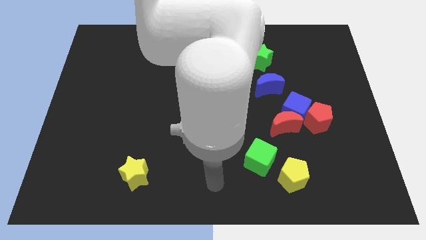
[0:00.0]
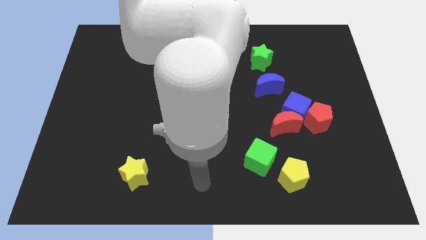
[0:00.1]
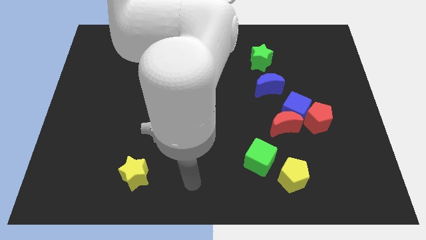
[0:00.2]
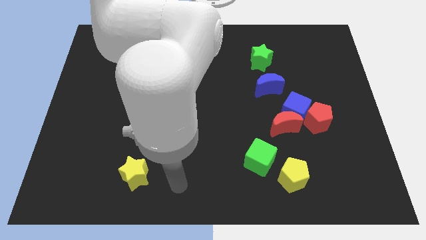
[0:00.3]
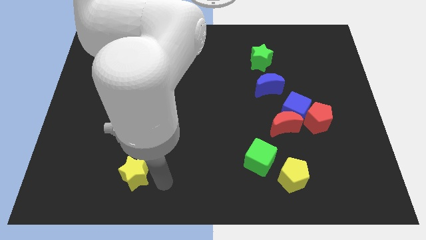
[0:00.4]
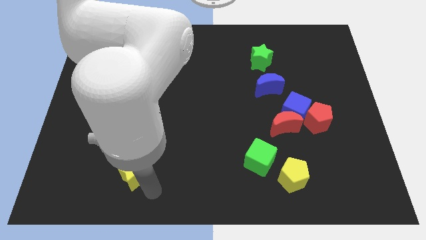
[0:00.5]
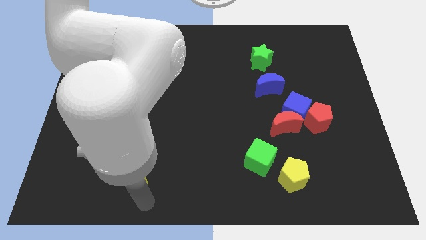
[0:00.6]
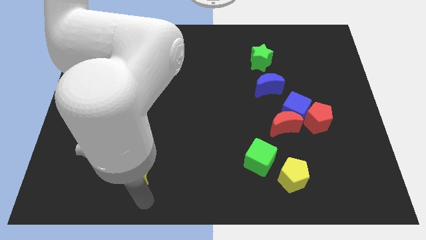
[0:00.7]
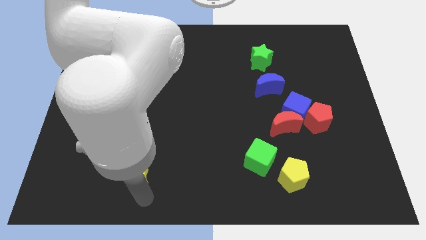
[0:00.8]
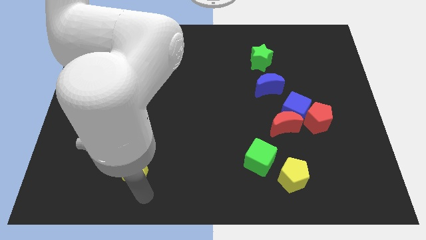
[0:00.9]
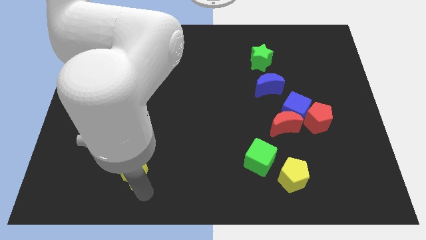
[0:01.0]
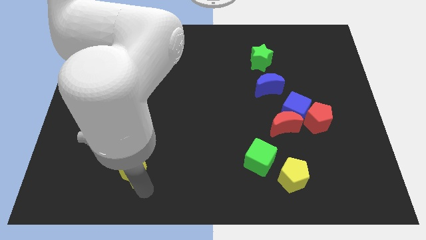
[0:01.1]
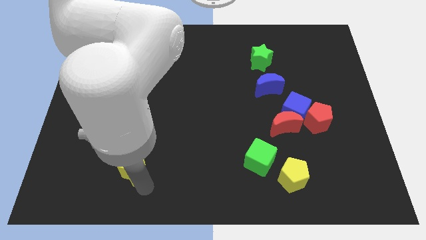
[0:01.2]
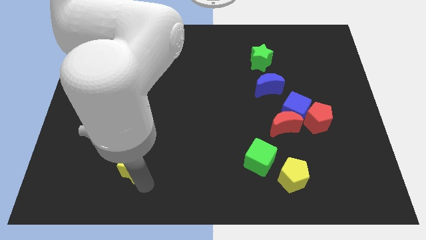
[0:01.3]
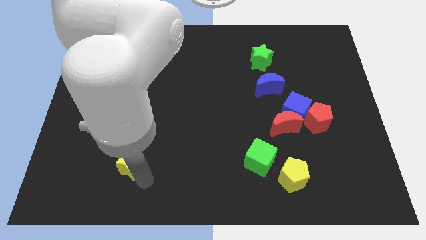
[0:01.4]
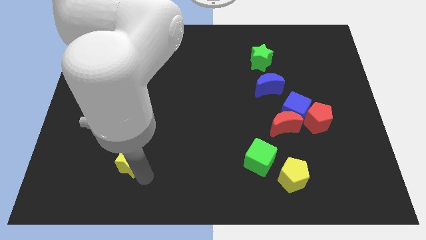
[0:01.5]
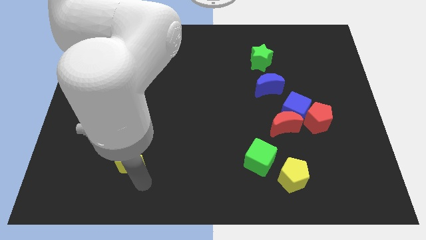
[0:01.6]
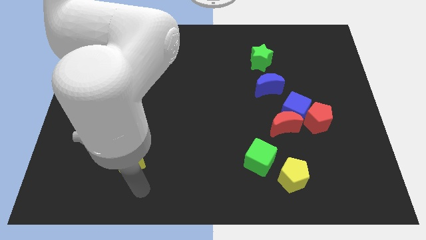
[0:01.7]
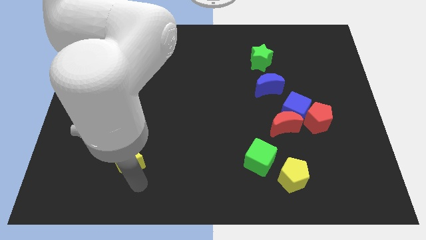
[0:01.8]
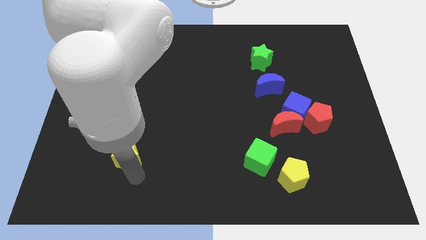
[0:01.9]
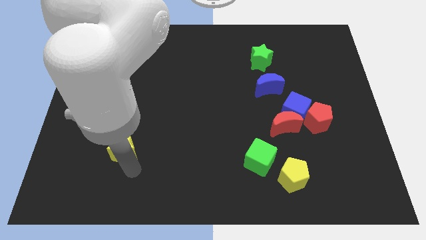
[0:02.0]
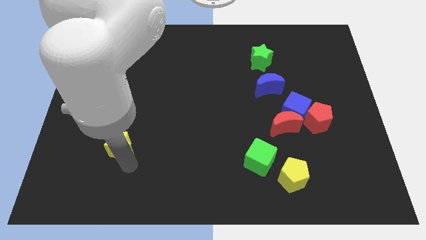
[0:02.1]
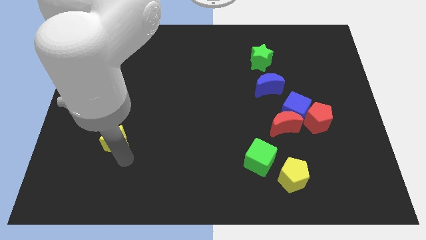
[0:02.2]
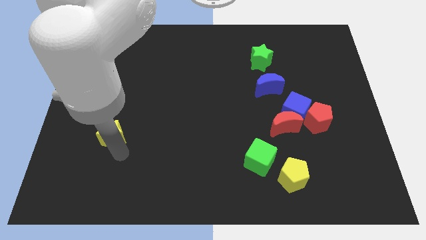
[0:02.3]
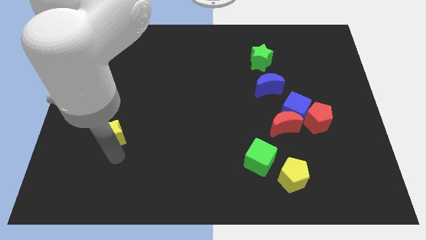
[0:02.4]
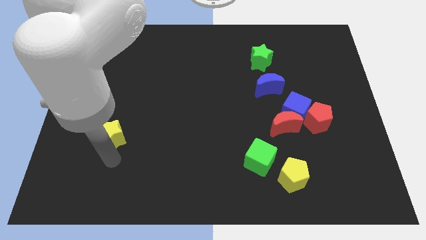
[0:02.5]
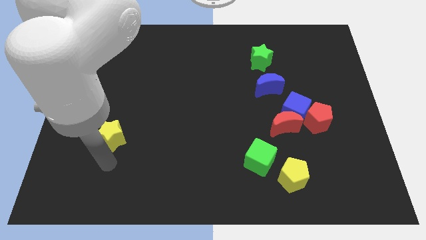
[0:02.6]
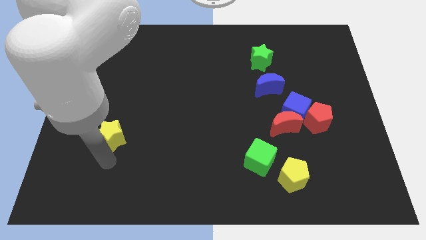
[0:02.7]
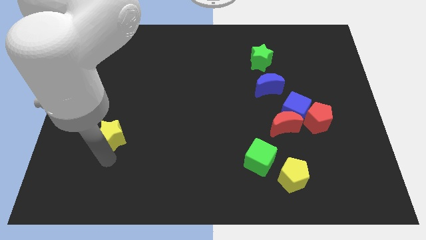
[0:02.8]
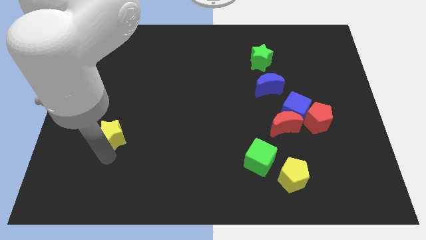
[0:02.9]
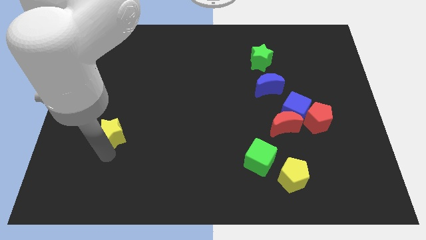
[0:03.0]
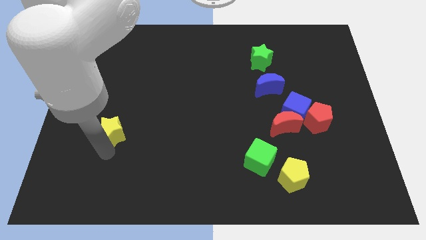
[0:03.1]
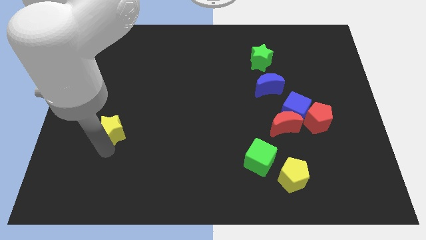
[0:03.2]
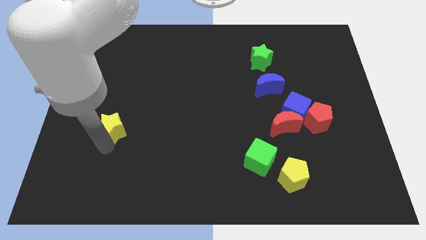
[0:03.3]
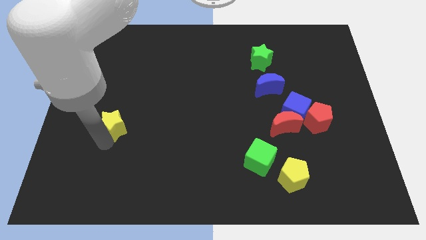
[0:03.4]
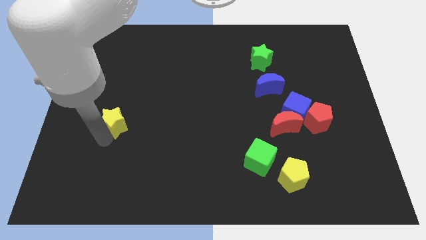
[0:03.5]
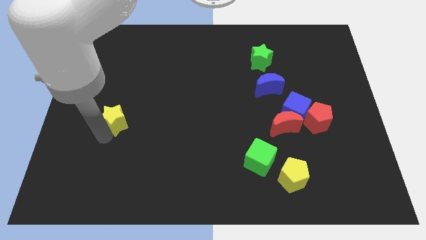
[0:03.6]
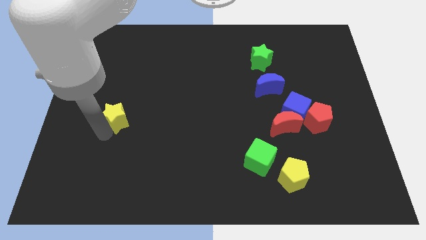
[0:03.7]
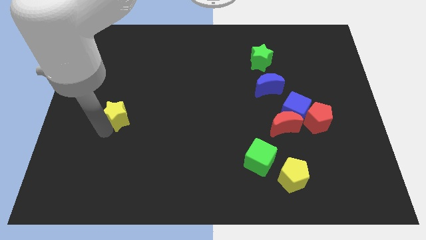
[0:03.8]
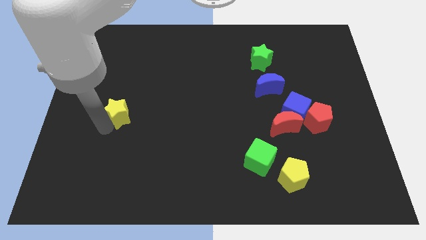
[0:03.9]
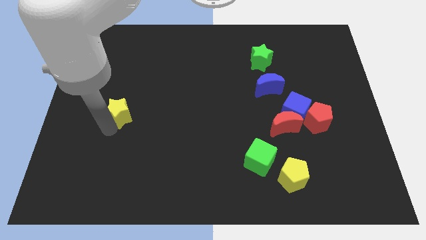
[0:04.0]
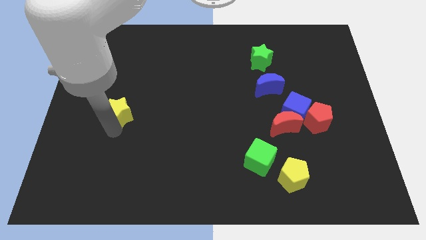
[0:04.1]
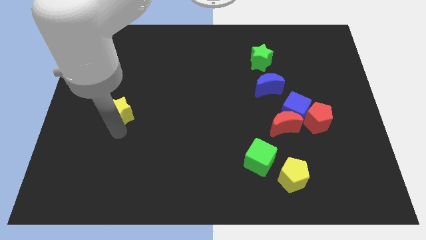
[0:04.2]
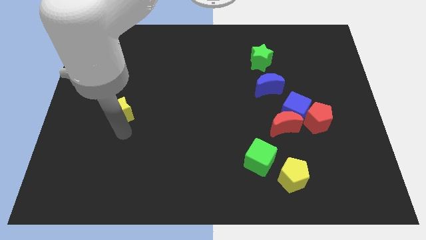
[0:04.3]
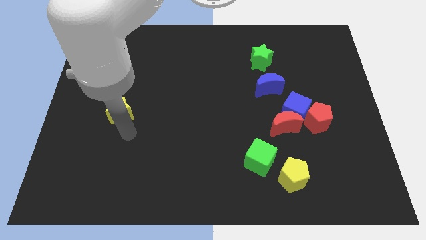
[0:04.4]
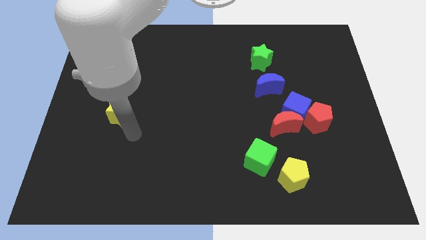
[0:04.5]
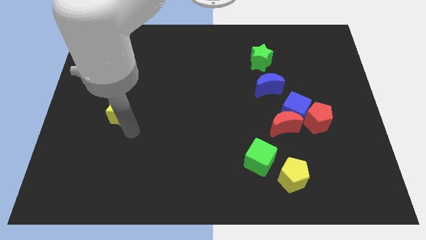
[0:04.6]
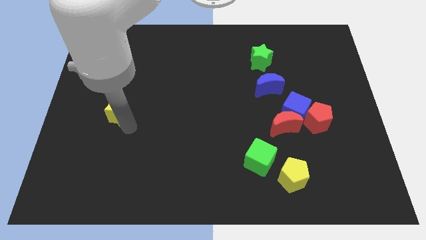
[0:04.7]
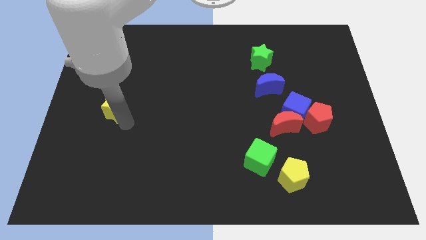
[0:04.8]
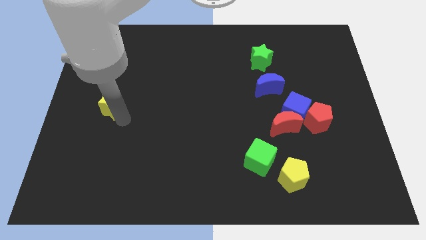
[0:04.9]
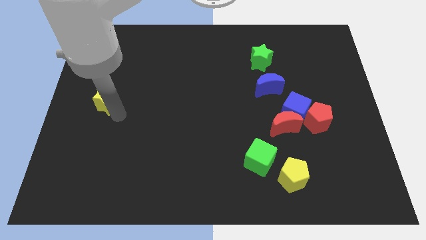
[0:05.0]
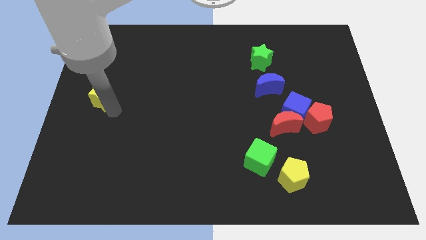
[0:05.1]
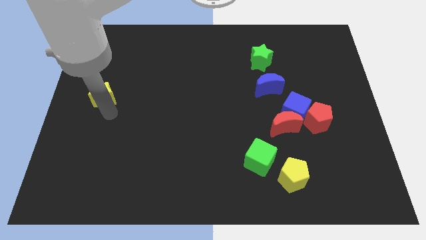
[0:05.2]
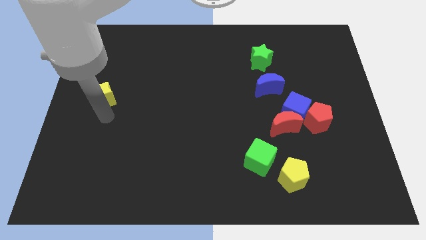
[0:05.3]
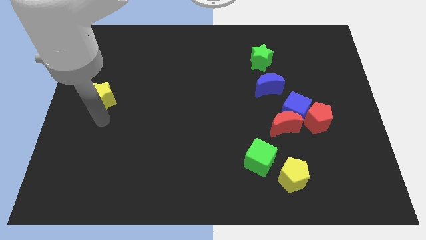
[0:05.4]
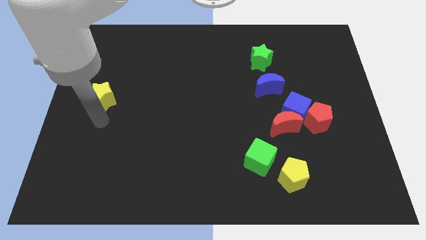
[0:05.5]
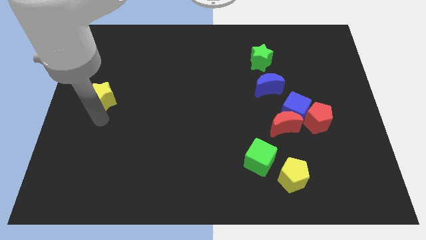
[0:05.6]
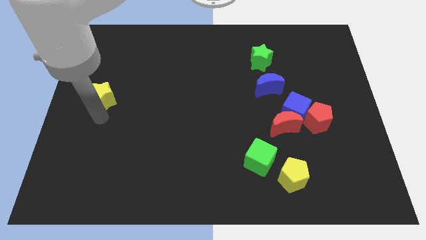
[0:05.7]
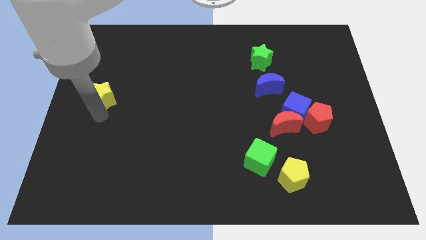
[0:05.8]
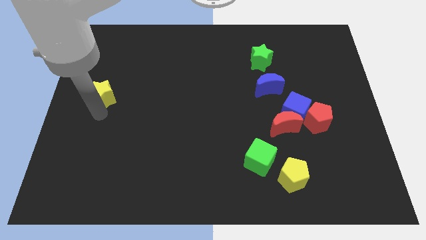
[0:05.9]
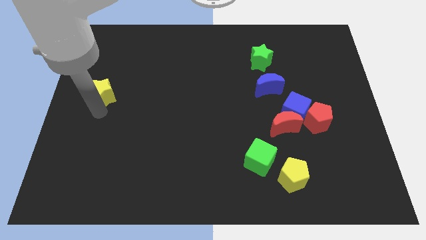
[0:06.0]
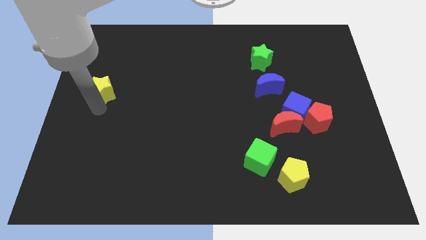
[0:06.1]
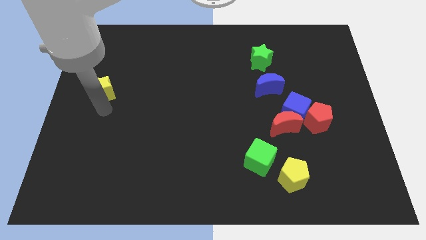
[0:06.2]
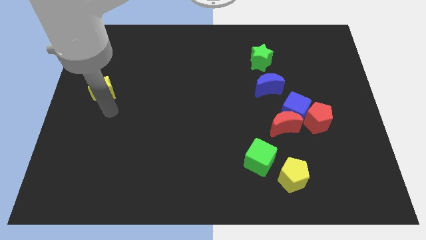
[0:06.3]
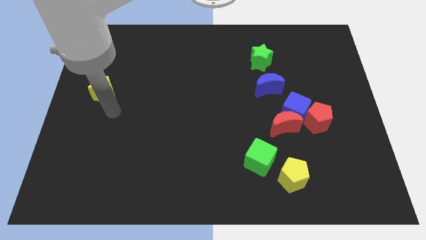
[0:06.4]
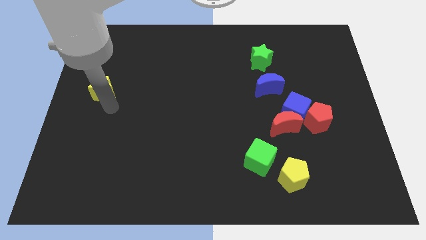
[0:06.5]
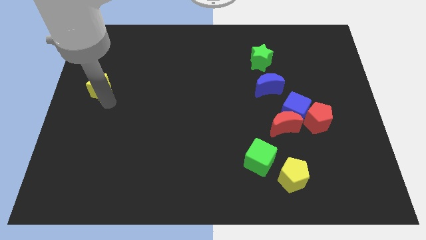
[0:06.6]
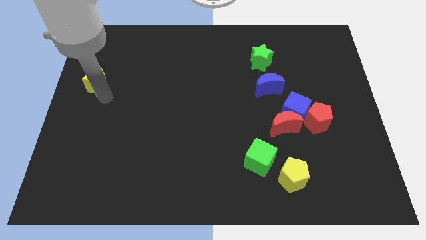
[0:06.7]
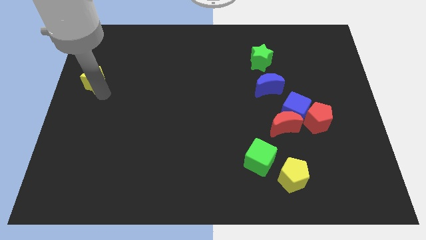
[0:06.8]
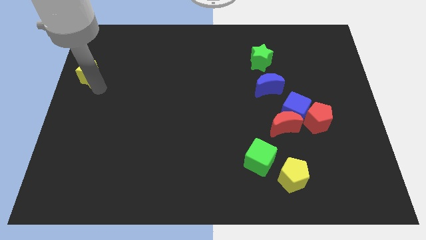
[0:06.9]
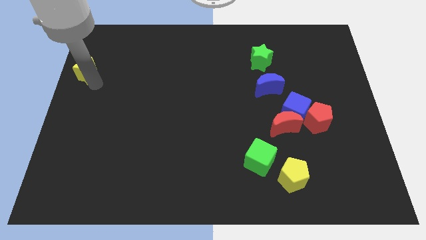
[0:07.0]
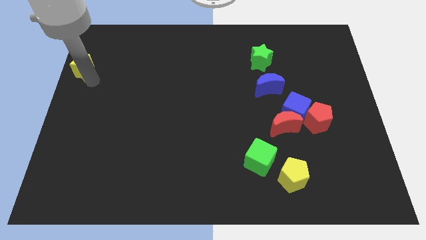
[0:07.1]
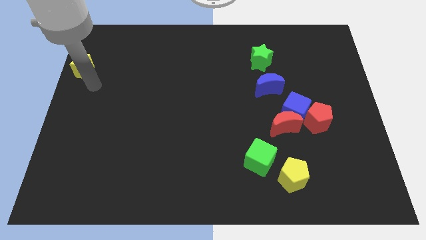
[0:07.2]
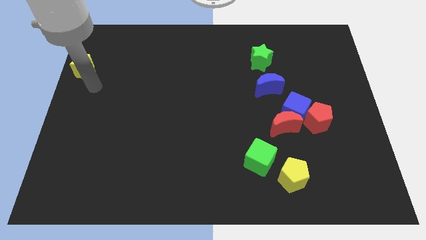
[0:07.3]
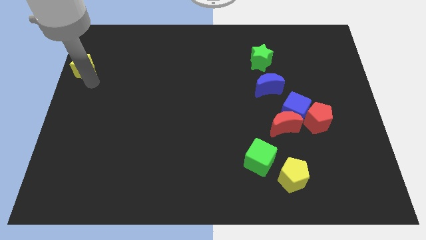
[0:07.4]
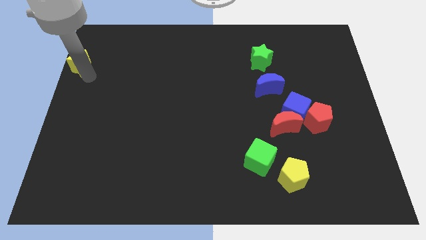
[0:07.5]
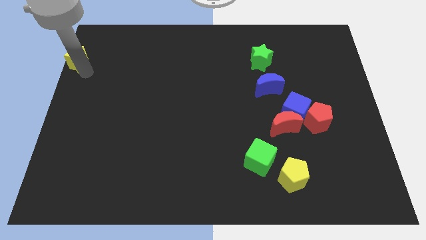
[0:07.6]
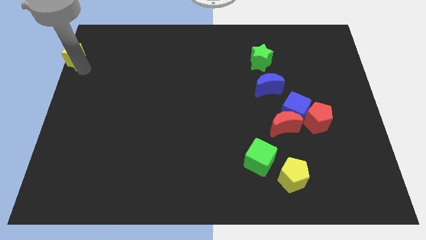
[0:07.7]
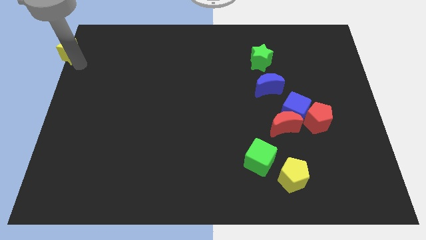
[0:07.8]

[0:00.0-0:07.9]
move the yellow star to the top left corner
